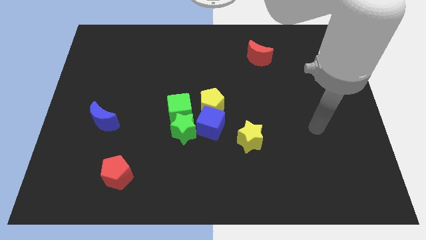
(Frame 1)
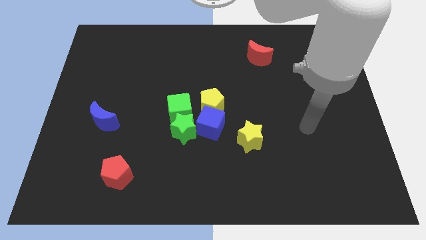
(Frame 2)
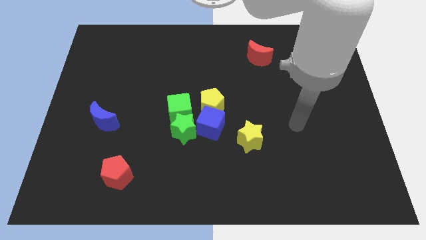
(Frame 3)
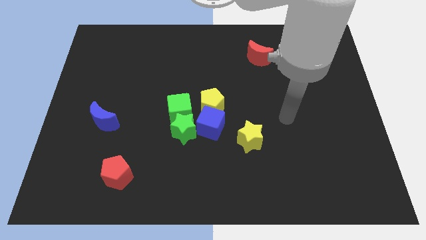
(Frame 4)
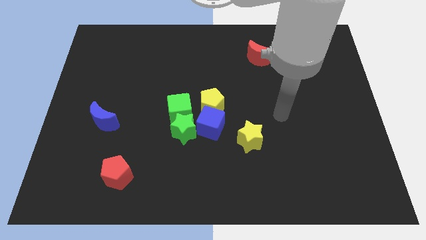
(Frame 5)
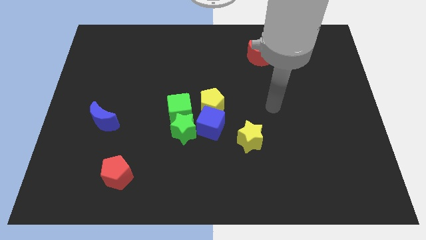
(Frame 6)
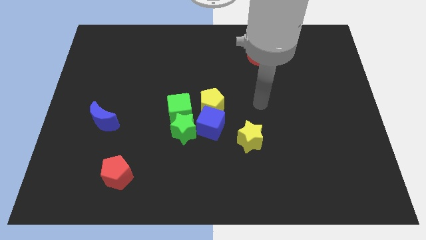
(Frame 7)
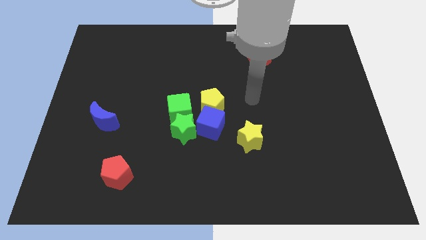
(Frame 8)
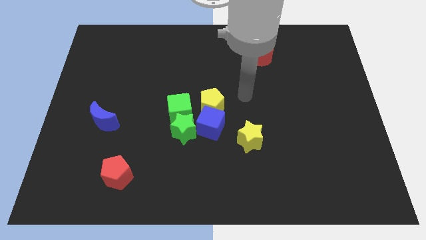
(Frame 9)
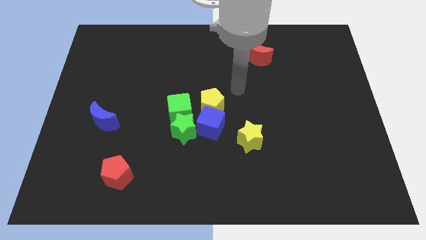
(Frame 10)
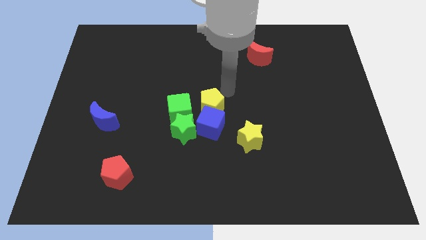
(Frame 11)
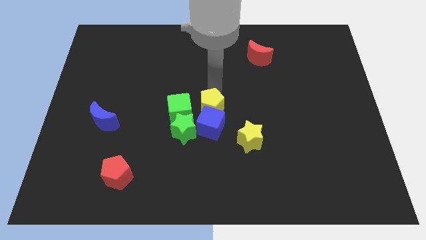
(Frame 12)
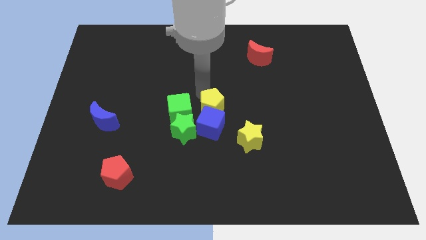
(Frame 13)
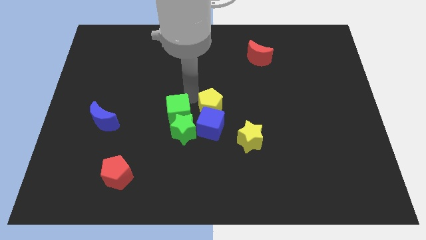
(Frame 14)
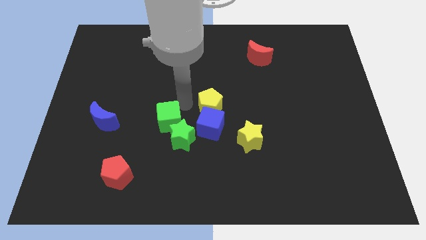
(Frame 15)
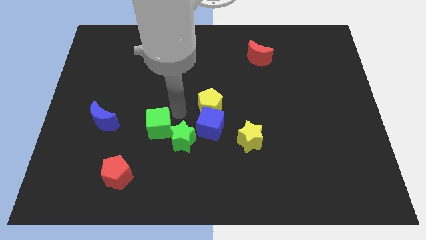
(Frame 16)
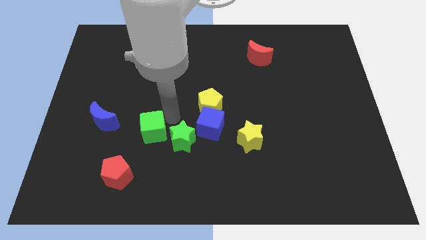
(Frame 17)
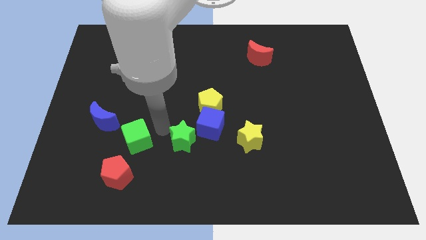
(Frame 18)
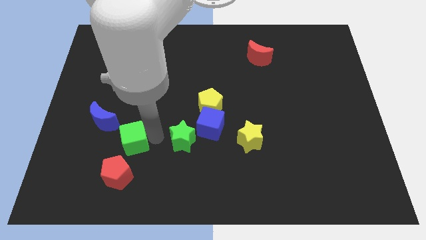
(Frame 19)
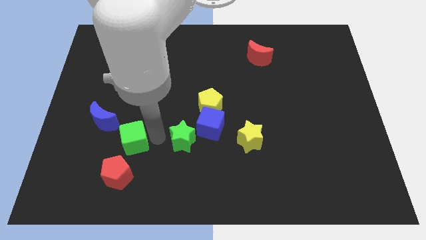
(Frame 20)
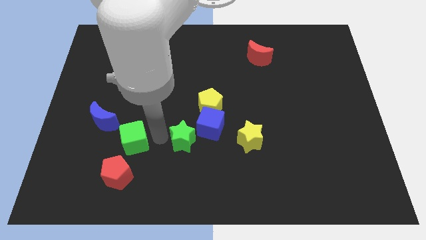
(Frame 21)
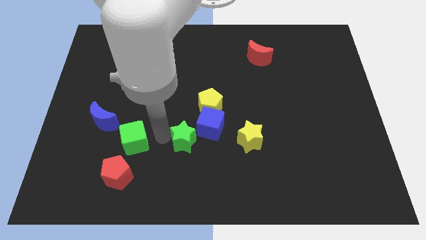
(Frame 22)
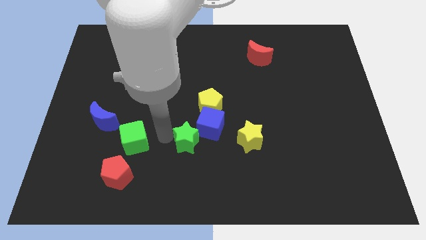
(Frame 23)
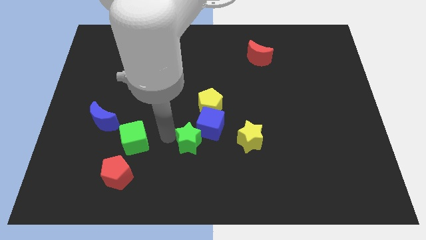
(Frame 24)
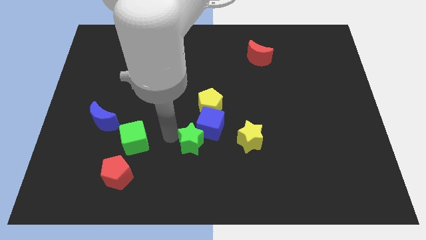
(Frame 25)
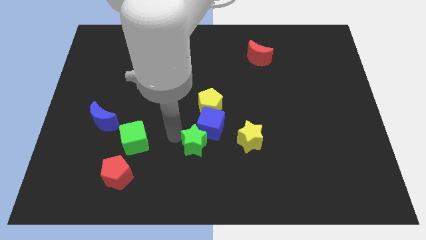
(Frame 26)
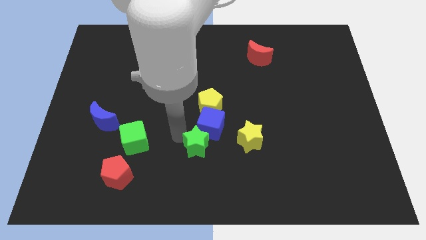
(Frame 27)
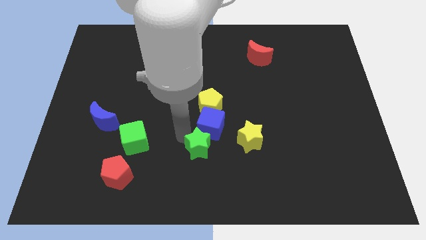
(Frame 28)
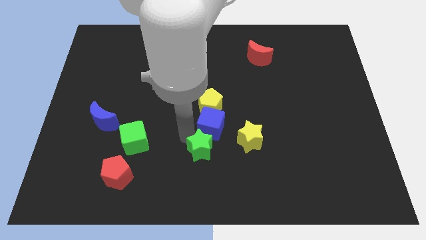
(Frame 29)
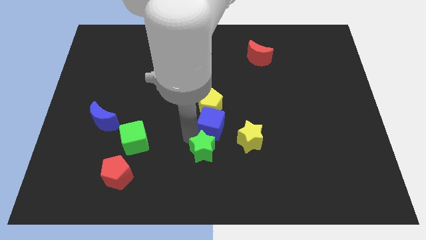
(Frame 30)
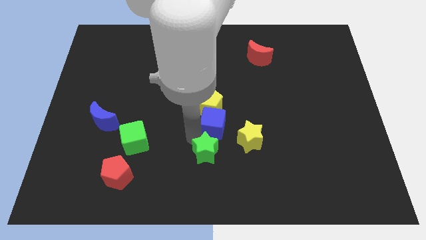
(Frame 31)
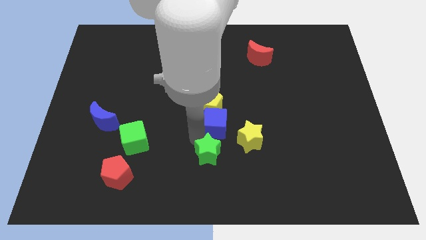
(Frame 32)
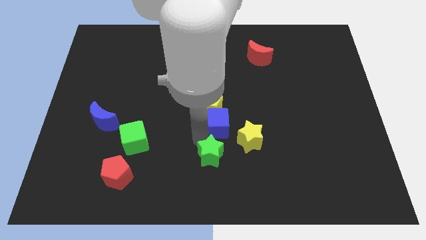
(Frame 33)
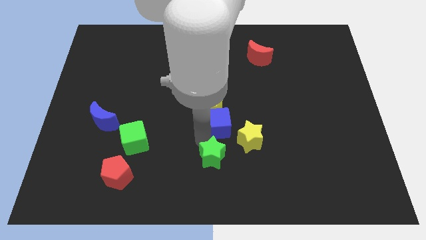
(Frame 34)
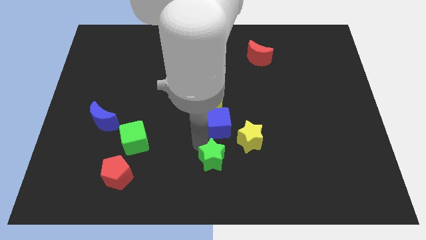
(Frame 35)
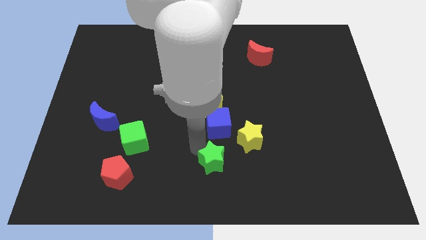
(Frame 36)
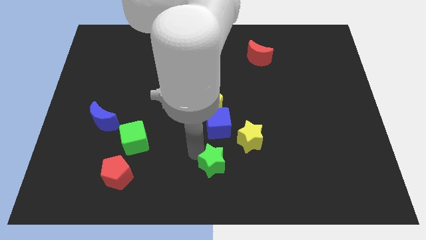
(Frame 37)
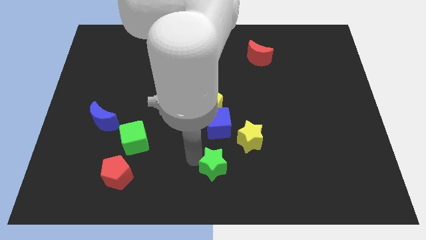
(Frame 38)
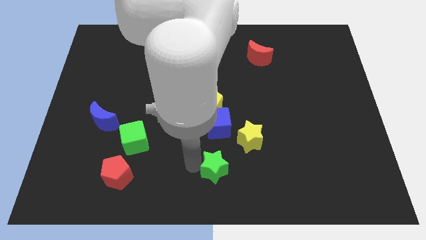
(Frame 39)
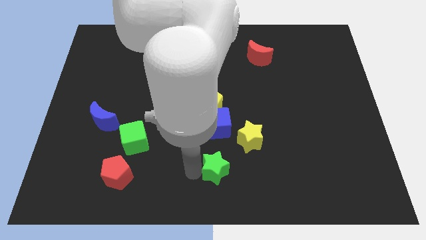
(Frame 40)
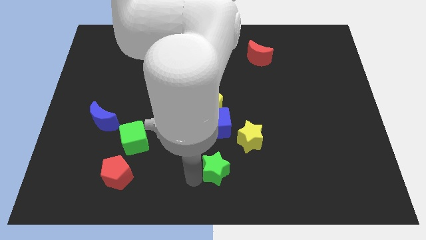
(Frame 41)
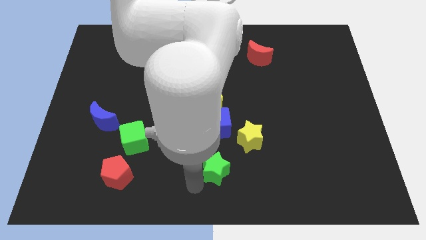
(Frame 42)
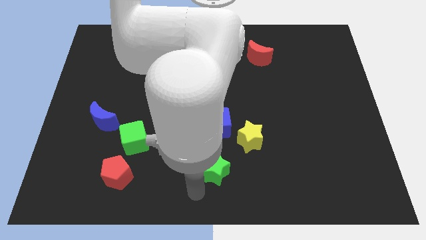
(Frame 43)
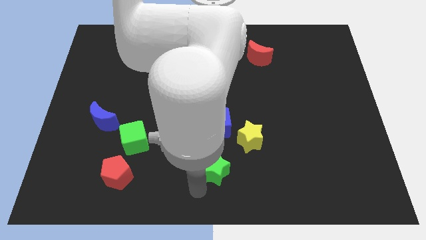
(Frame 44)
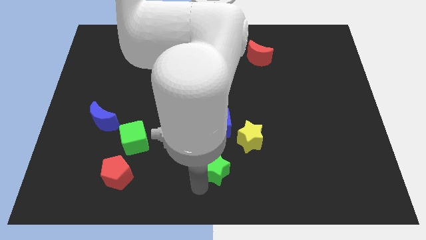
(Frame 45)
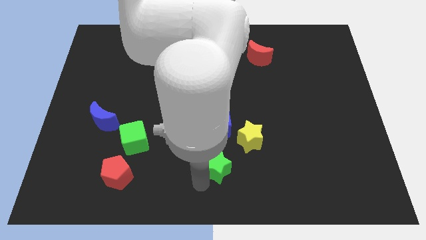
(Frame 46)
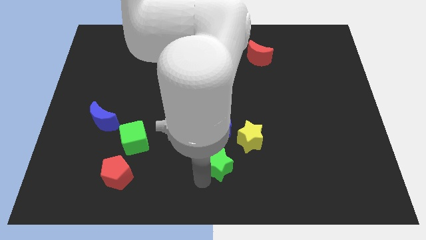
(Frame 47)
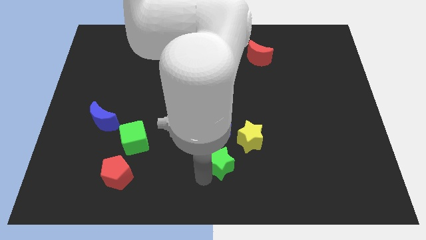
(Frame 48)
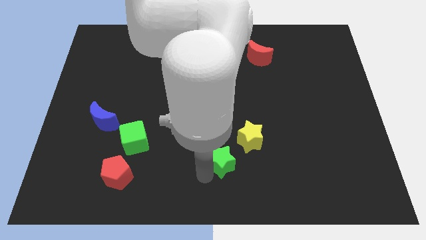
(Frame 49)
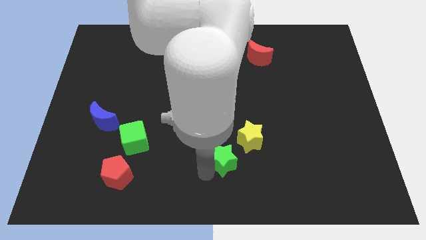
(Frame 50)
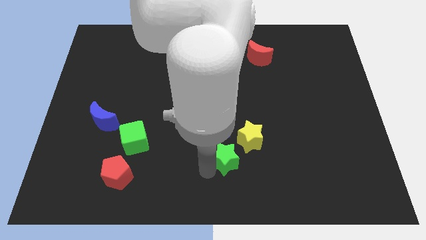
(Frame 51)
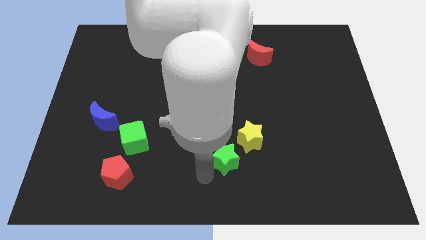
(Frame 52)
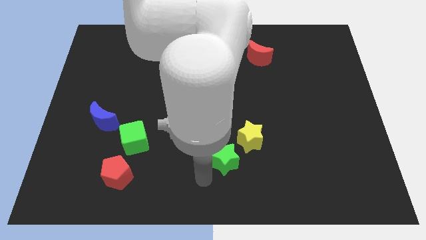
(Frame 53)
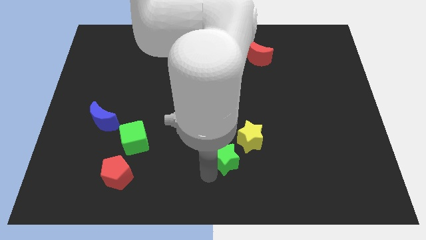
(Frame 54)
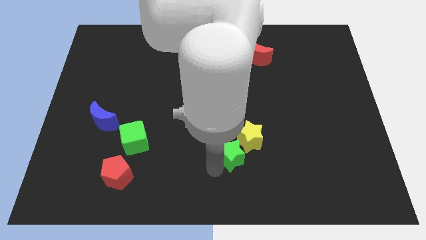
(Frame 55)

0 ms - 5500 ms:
push the green star next to the yellow star
